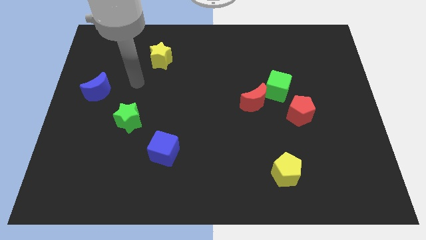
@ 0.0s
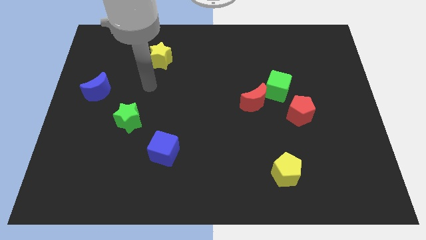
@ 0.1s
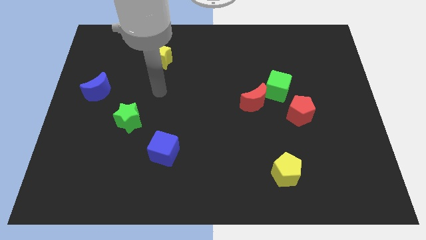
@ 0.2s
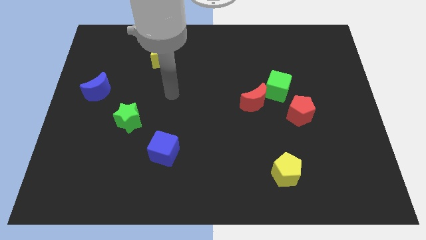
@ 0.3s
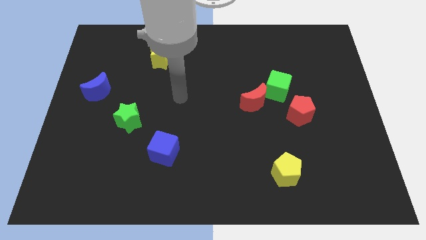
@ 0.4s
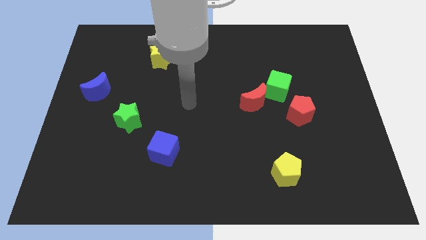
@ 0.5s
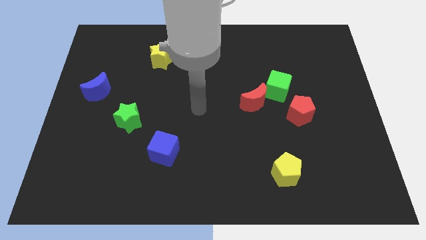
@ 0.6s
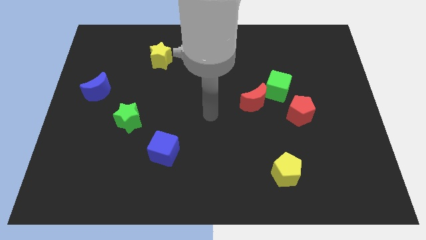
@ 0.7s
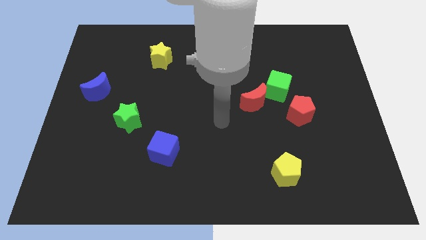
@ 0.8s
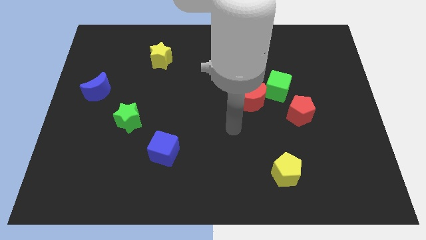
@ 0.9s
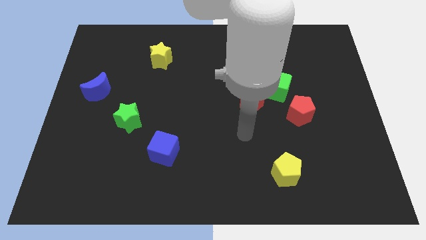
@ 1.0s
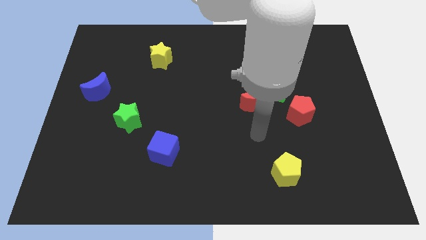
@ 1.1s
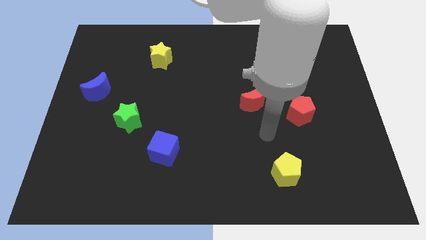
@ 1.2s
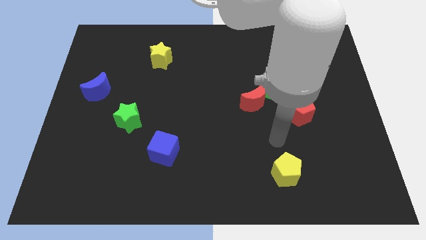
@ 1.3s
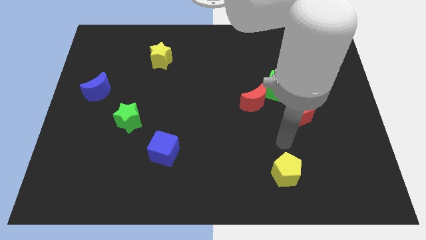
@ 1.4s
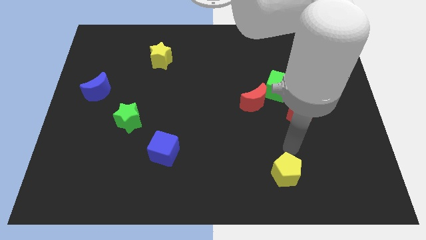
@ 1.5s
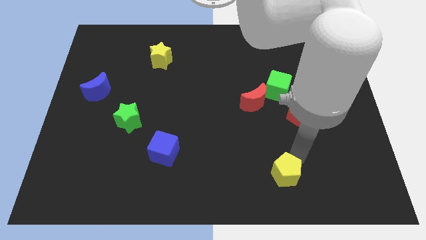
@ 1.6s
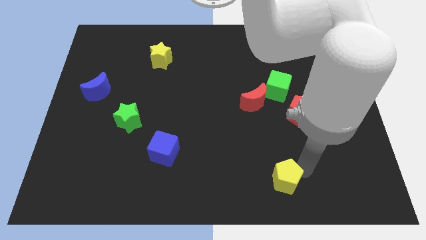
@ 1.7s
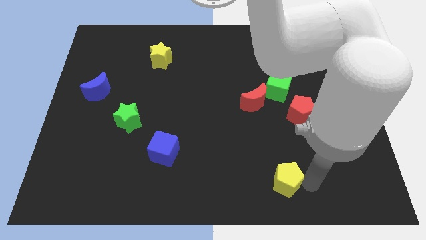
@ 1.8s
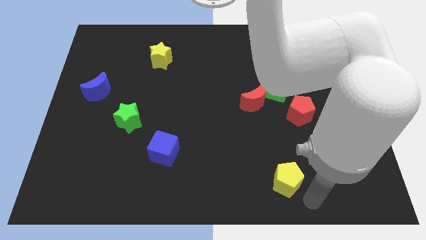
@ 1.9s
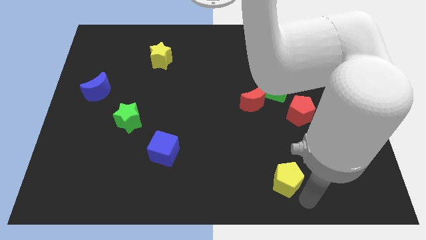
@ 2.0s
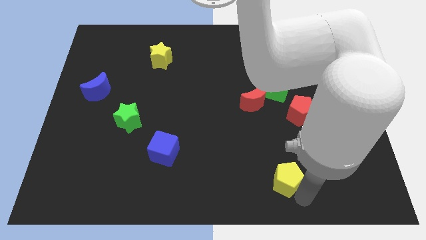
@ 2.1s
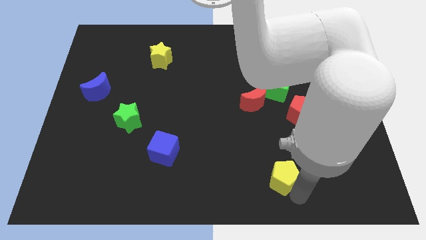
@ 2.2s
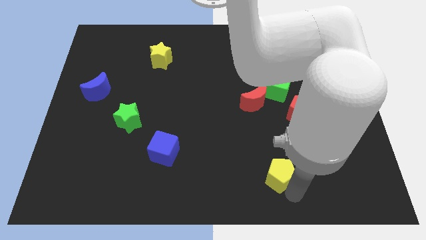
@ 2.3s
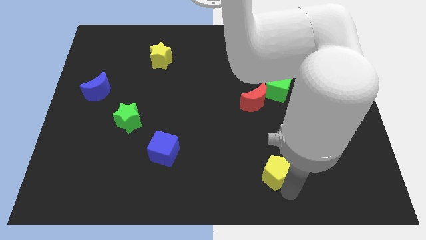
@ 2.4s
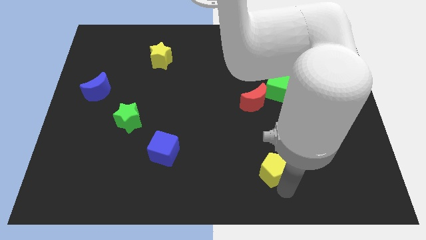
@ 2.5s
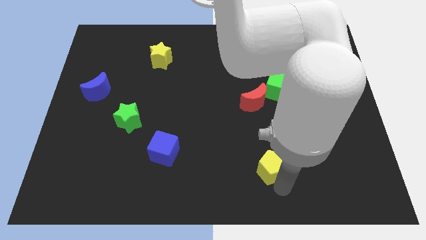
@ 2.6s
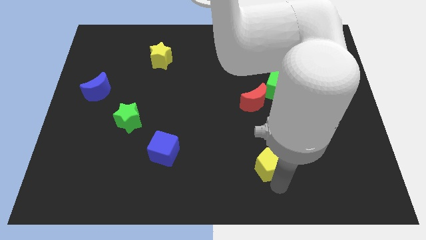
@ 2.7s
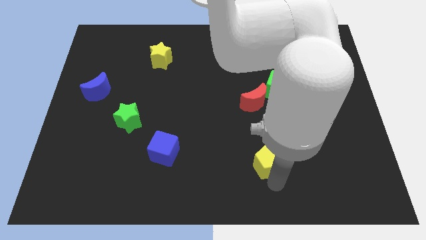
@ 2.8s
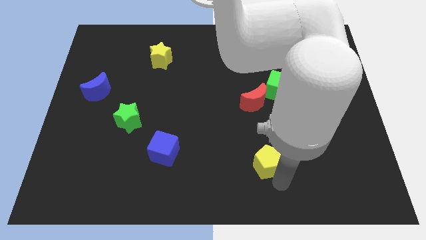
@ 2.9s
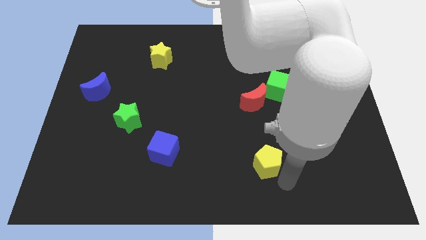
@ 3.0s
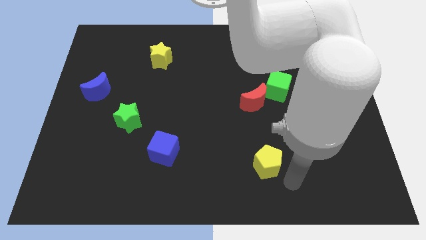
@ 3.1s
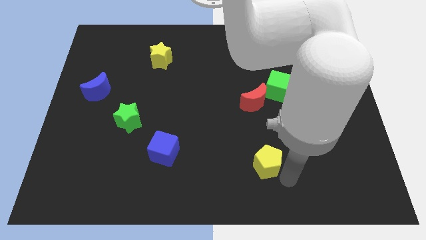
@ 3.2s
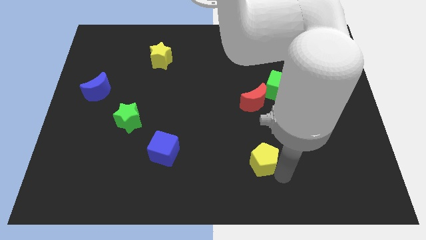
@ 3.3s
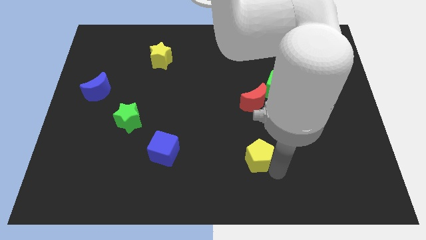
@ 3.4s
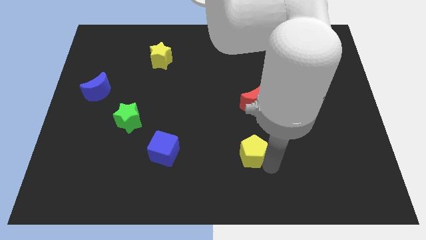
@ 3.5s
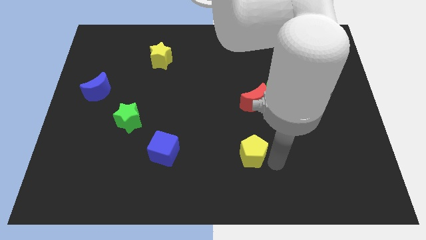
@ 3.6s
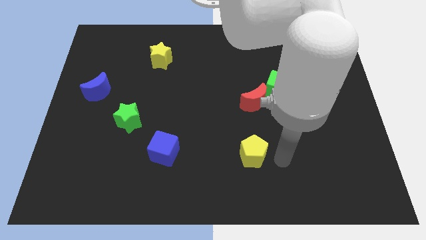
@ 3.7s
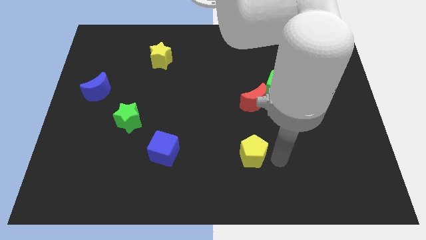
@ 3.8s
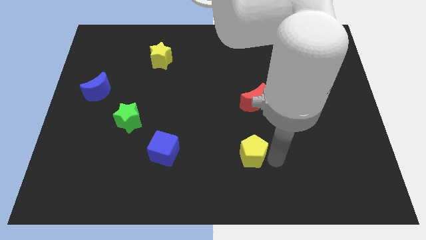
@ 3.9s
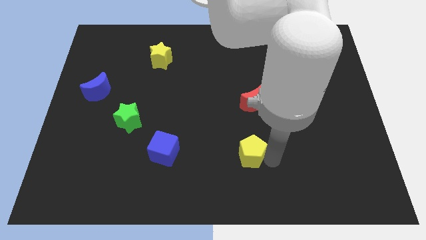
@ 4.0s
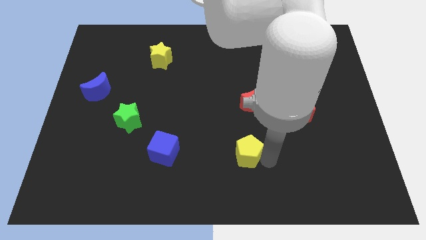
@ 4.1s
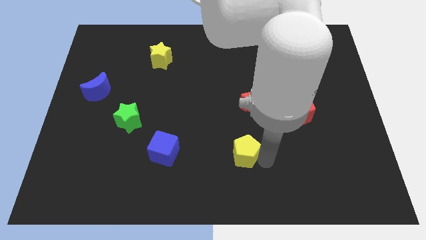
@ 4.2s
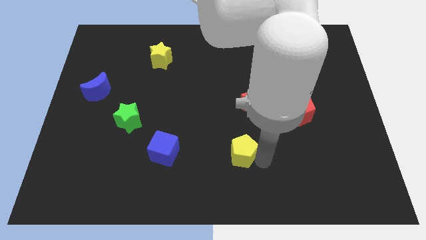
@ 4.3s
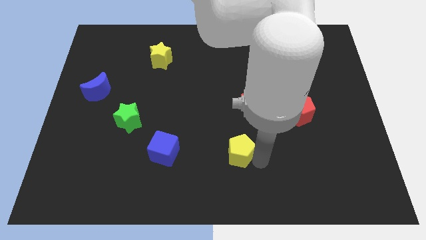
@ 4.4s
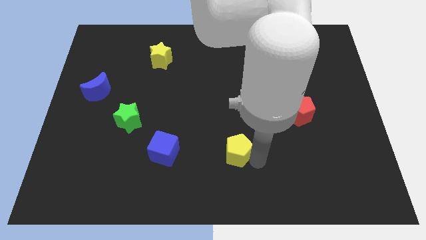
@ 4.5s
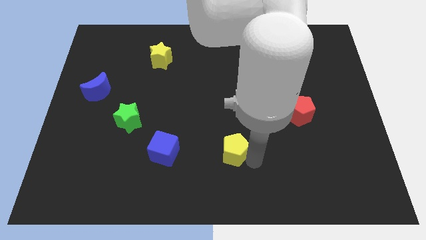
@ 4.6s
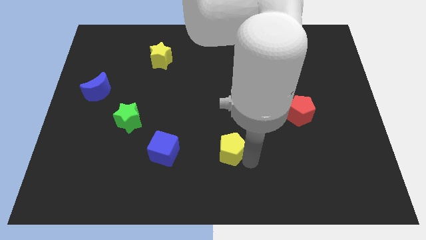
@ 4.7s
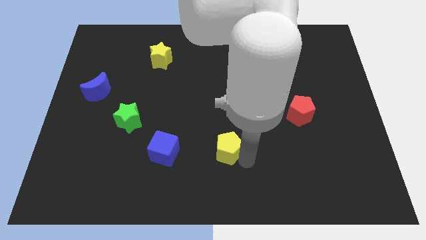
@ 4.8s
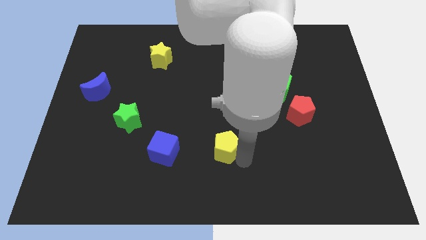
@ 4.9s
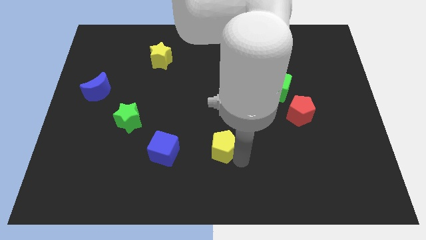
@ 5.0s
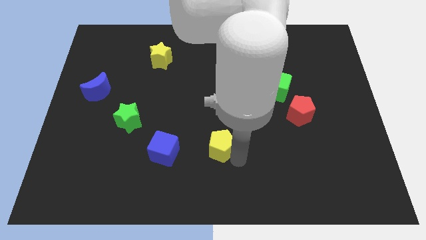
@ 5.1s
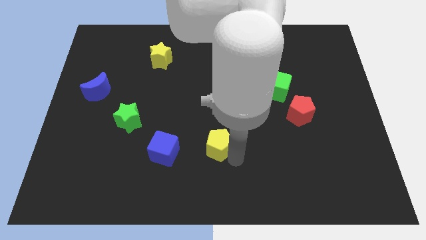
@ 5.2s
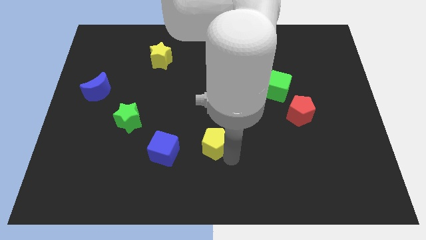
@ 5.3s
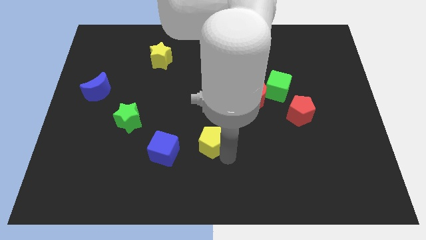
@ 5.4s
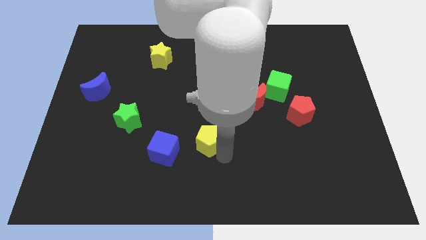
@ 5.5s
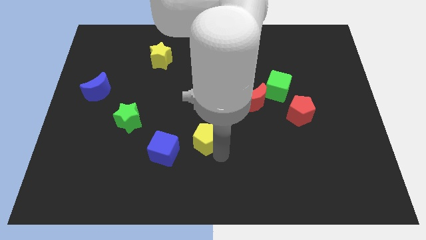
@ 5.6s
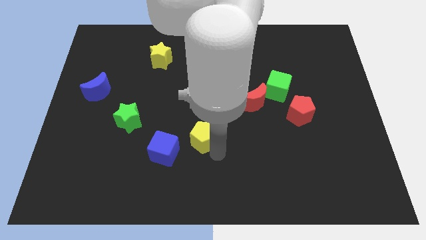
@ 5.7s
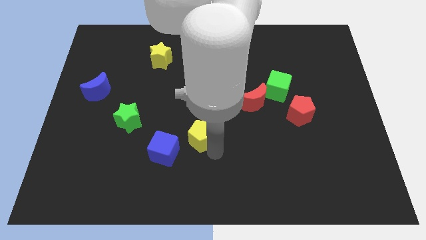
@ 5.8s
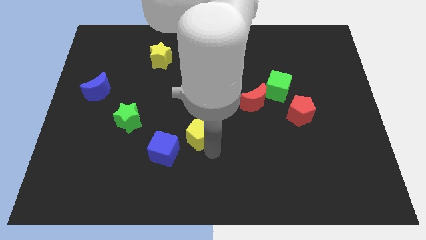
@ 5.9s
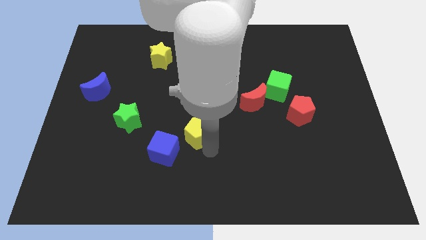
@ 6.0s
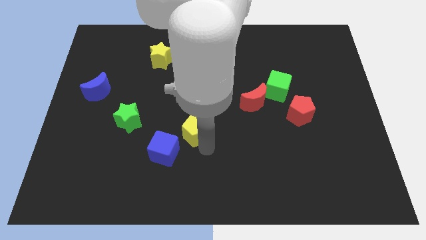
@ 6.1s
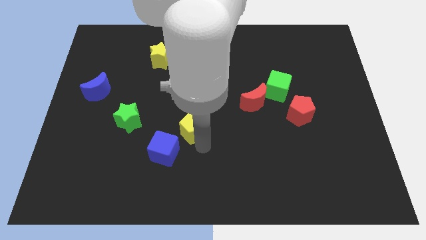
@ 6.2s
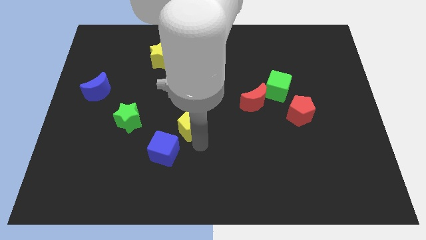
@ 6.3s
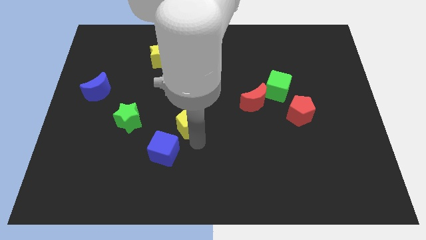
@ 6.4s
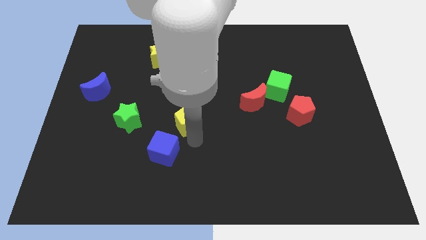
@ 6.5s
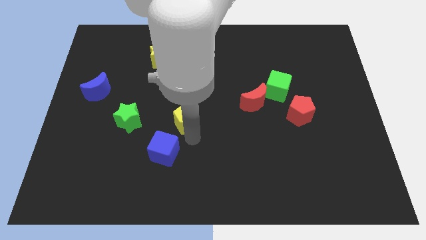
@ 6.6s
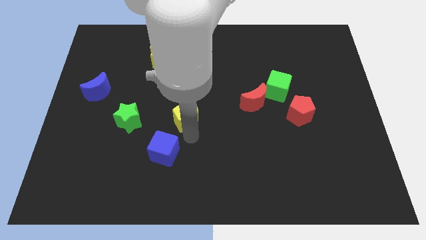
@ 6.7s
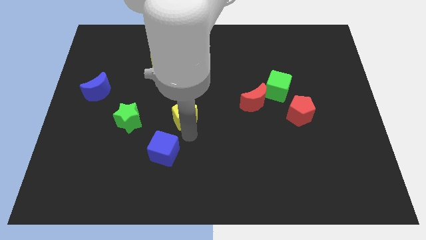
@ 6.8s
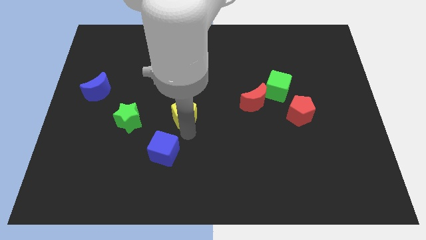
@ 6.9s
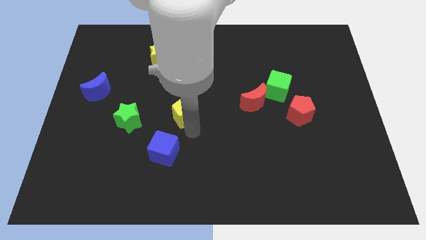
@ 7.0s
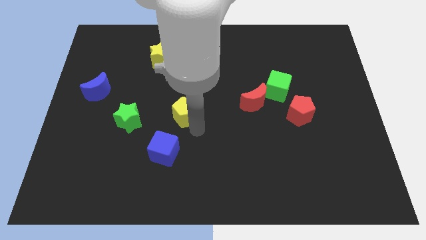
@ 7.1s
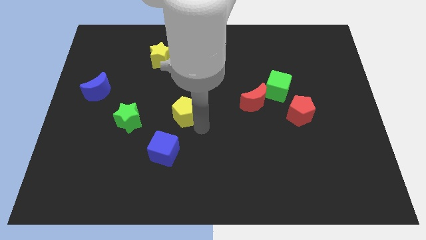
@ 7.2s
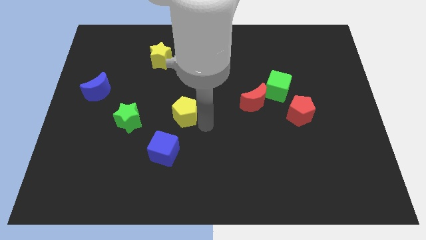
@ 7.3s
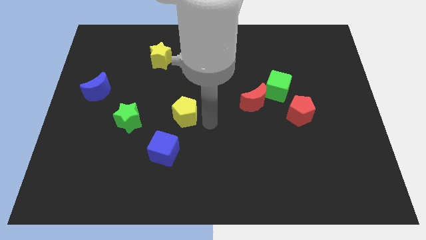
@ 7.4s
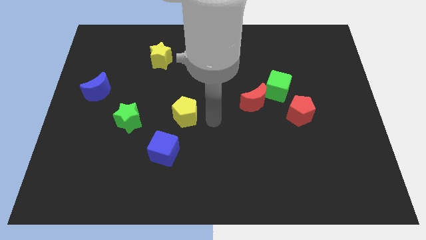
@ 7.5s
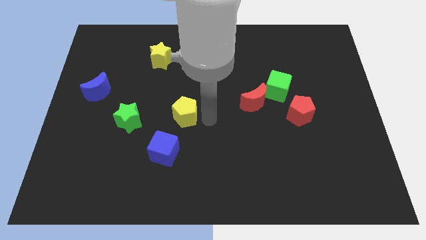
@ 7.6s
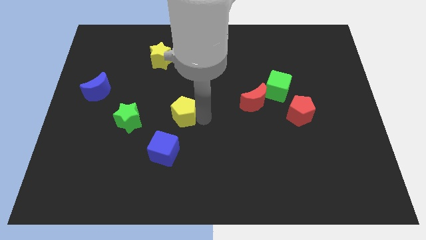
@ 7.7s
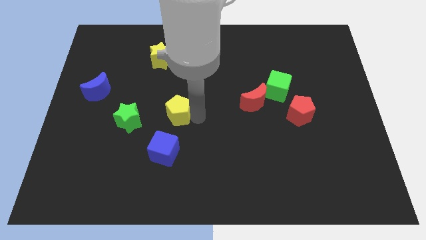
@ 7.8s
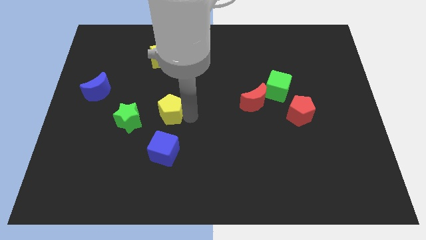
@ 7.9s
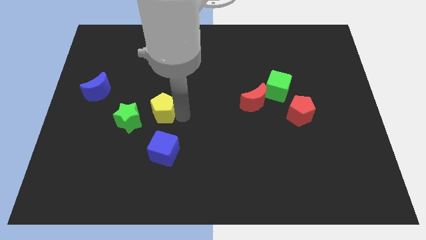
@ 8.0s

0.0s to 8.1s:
slide the yellow pentagon to the top right side of the green star
